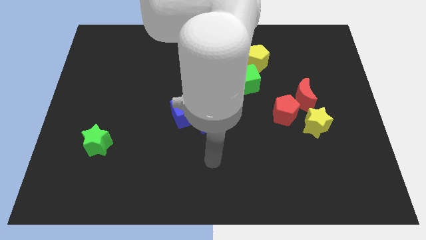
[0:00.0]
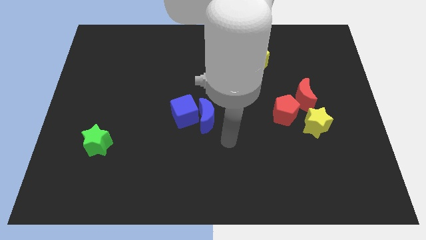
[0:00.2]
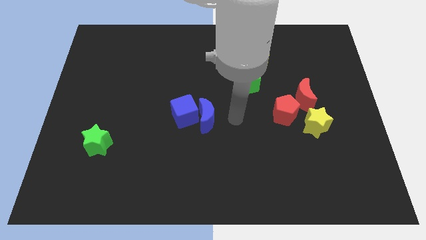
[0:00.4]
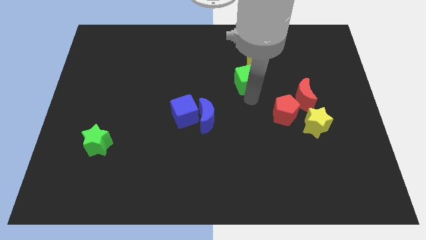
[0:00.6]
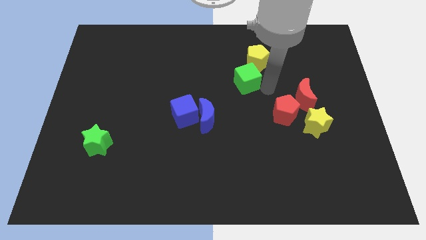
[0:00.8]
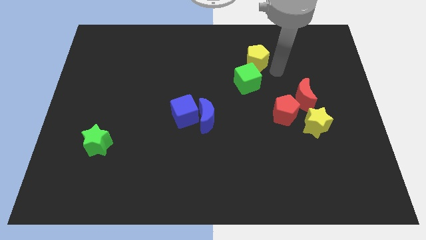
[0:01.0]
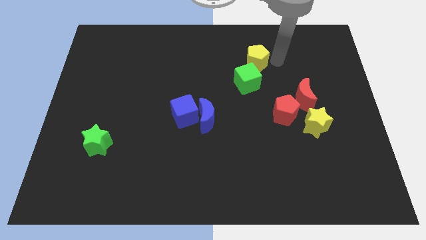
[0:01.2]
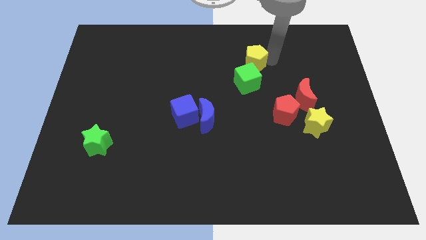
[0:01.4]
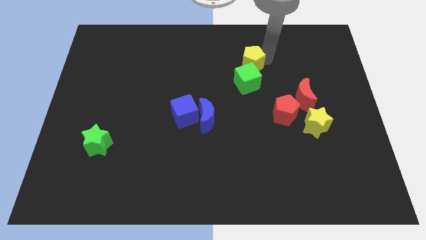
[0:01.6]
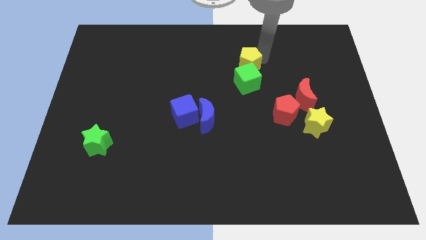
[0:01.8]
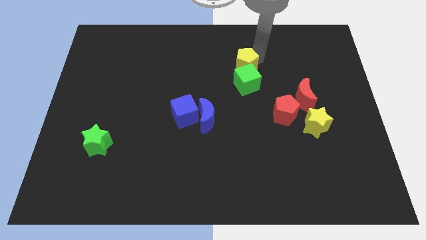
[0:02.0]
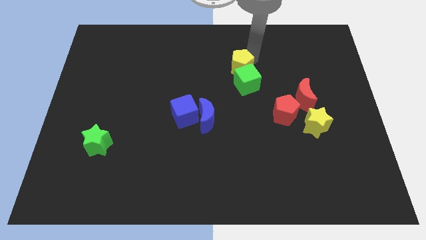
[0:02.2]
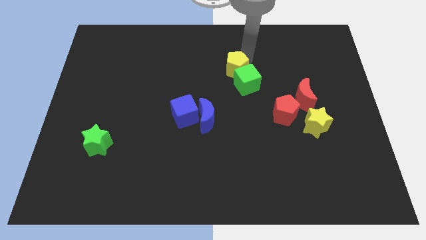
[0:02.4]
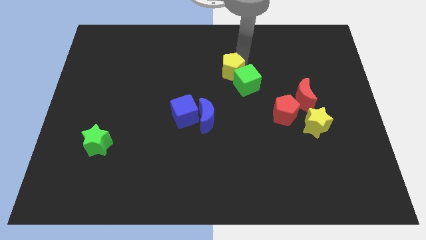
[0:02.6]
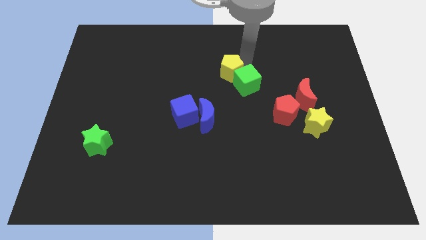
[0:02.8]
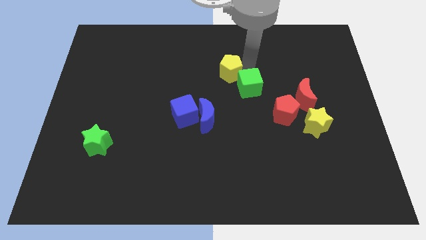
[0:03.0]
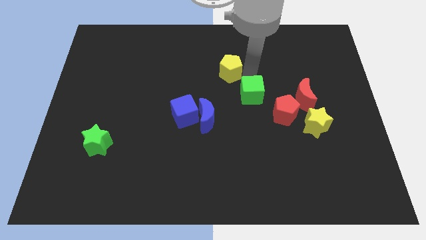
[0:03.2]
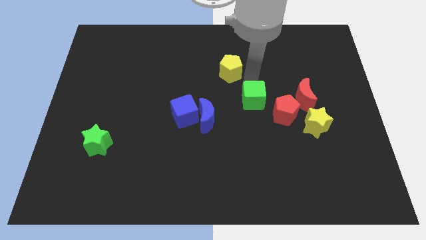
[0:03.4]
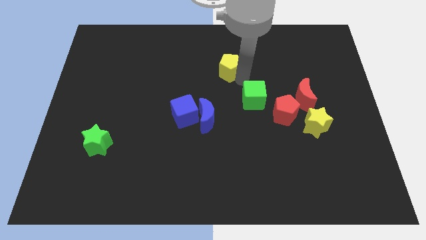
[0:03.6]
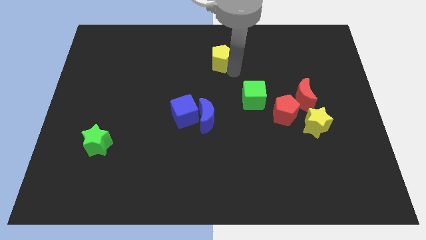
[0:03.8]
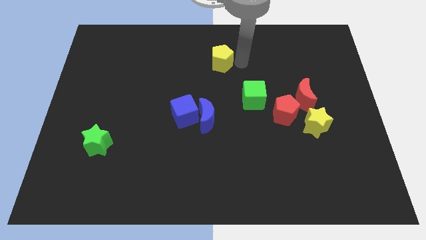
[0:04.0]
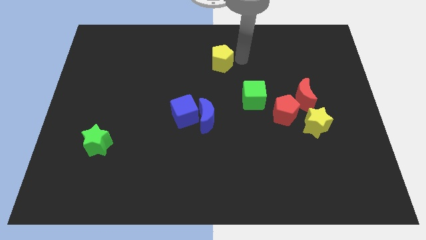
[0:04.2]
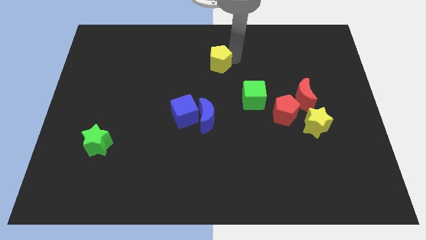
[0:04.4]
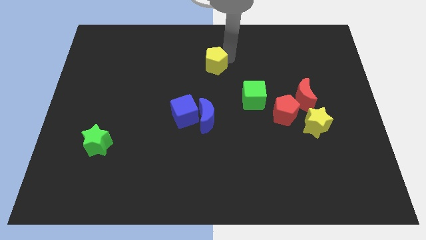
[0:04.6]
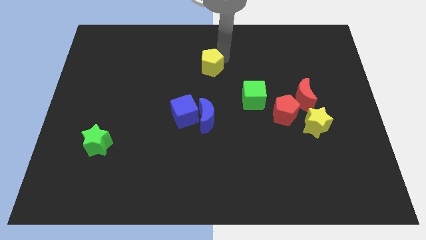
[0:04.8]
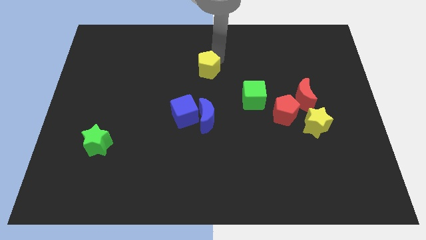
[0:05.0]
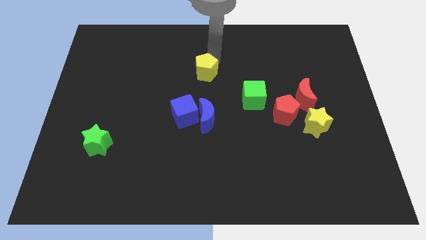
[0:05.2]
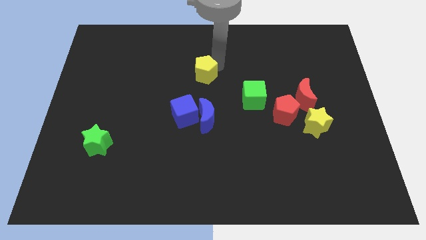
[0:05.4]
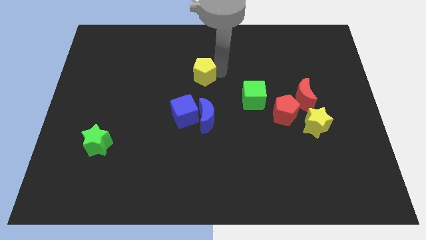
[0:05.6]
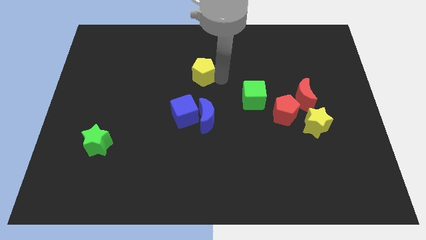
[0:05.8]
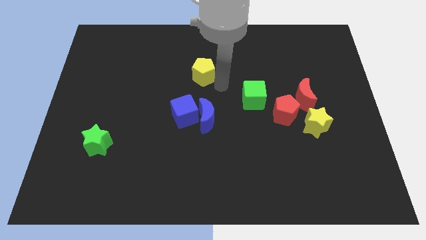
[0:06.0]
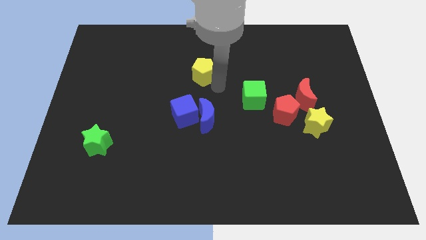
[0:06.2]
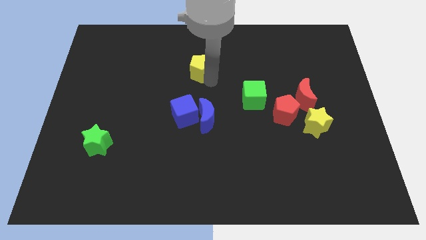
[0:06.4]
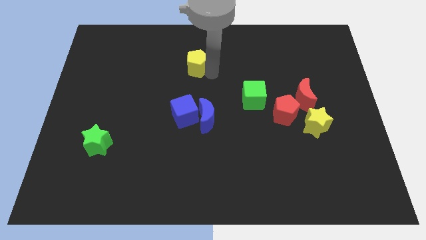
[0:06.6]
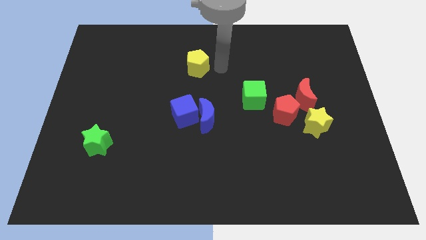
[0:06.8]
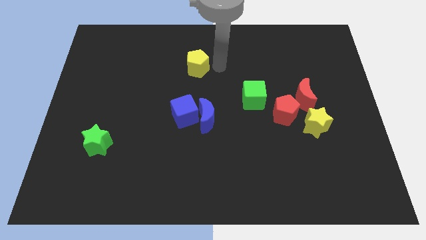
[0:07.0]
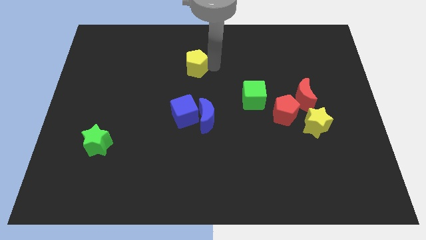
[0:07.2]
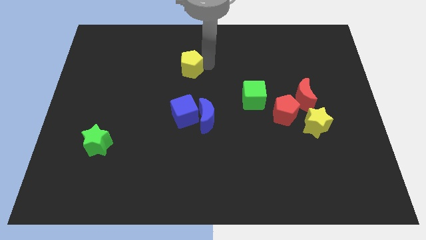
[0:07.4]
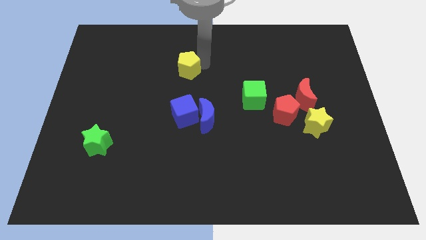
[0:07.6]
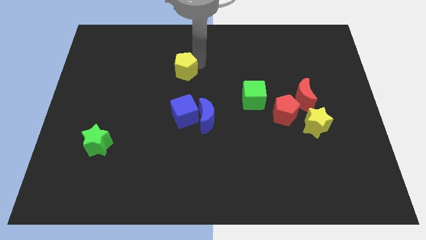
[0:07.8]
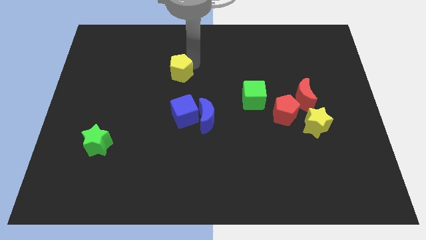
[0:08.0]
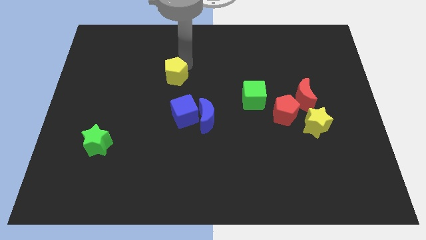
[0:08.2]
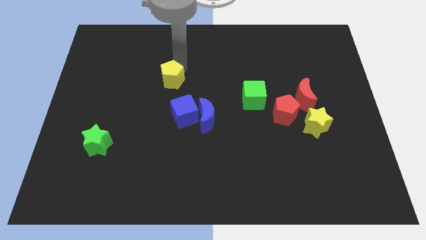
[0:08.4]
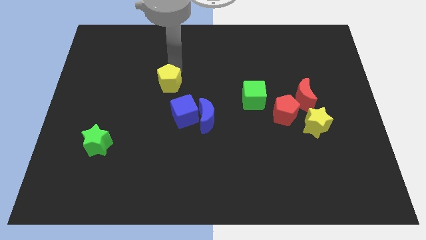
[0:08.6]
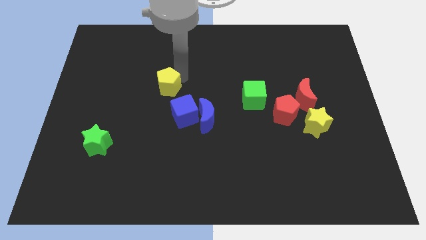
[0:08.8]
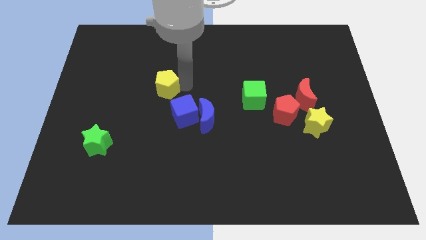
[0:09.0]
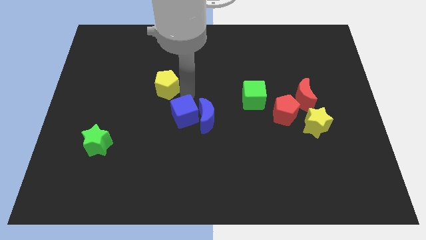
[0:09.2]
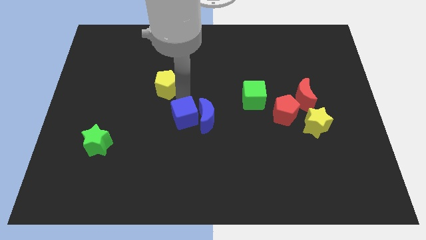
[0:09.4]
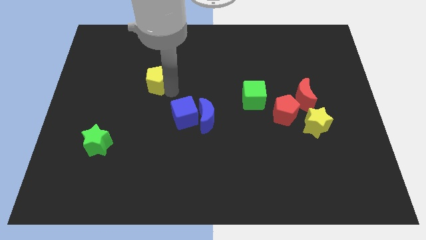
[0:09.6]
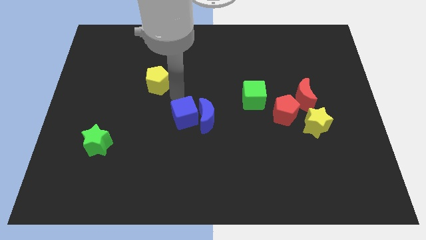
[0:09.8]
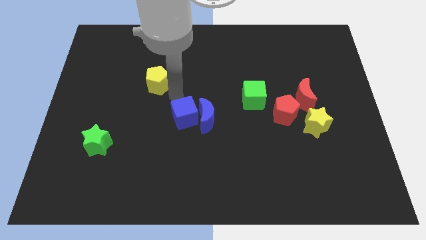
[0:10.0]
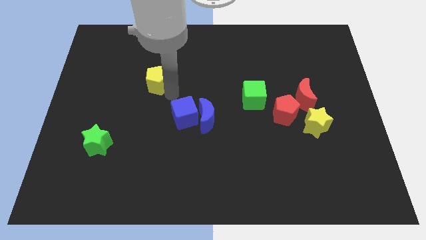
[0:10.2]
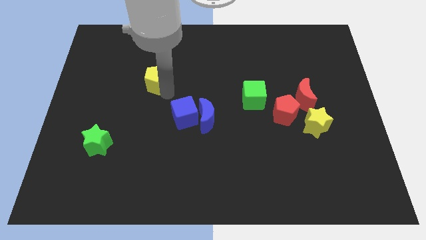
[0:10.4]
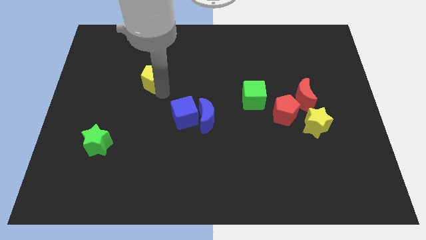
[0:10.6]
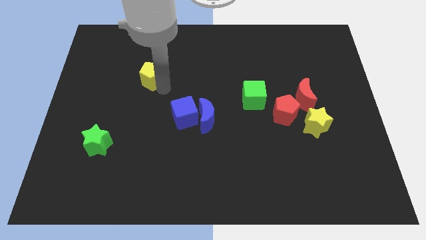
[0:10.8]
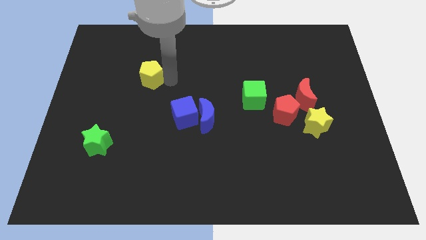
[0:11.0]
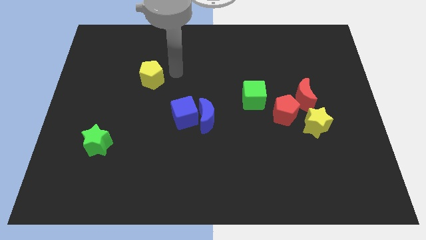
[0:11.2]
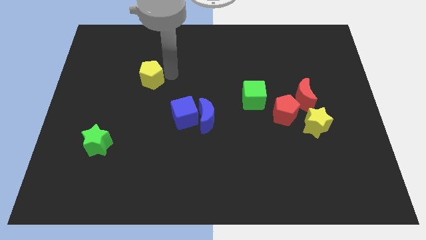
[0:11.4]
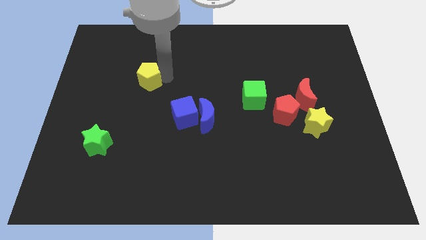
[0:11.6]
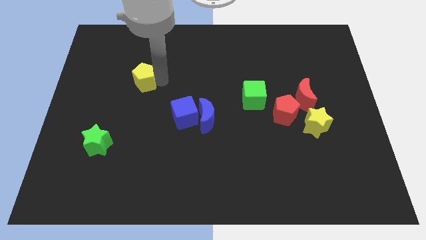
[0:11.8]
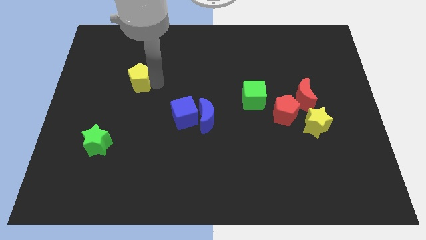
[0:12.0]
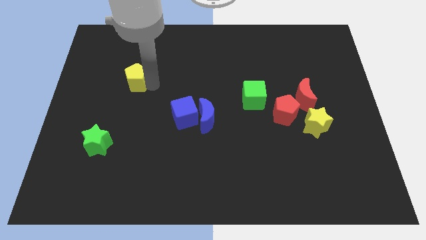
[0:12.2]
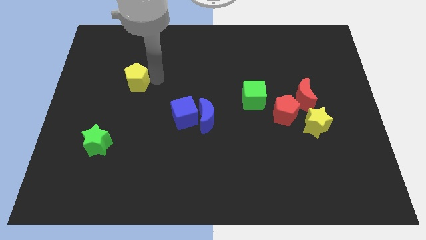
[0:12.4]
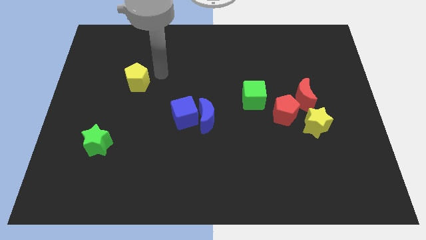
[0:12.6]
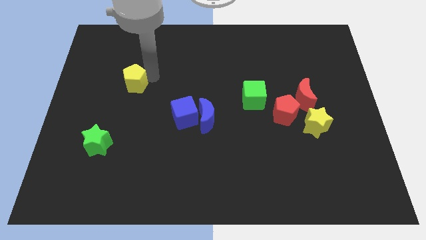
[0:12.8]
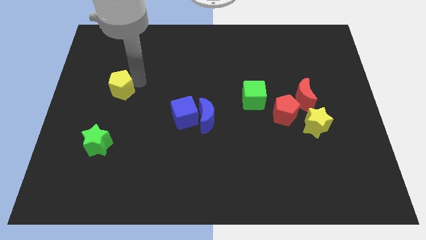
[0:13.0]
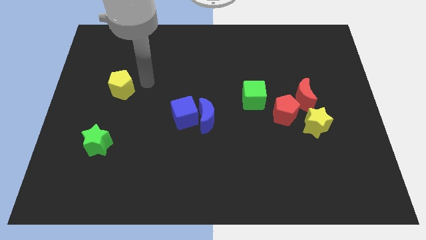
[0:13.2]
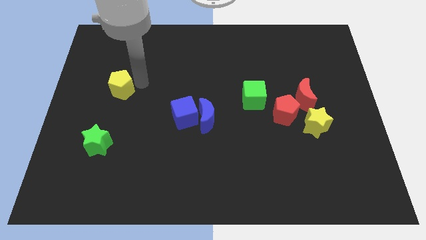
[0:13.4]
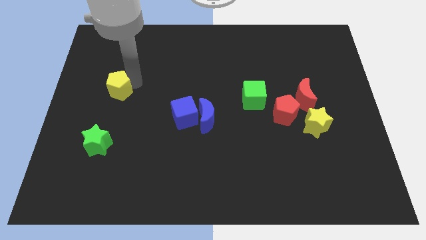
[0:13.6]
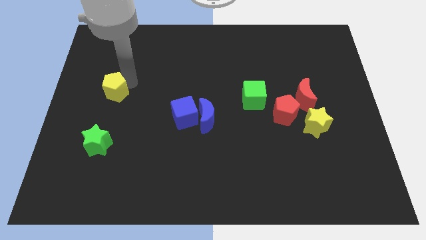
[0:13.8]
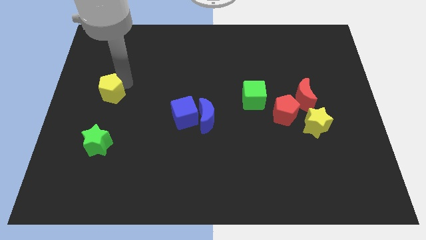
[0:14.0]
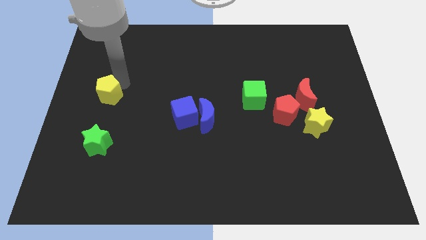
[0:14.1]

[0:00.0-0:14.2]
put the yellow pentagon to the left side
